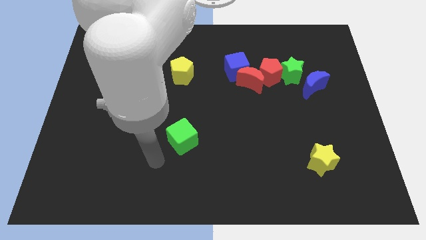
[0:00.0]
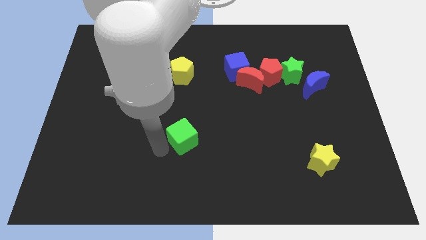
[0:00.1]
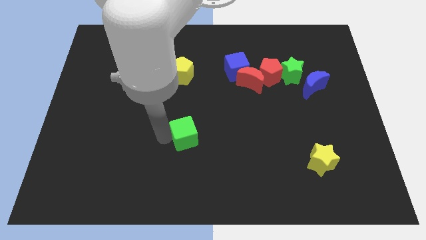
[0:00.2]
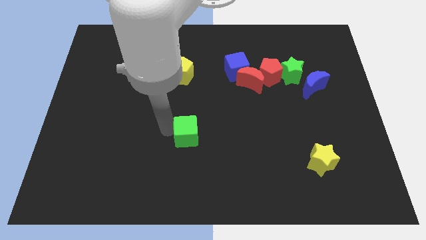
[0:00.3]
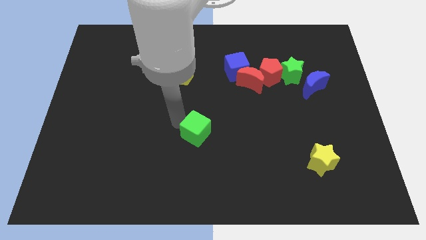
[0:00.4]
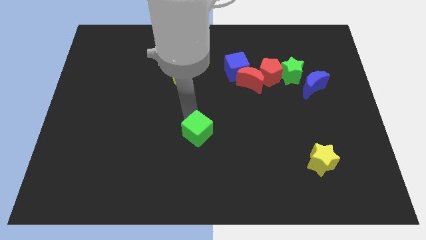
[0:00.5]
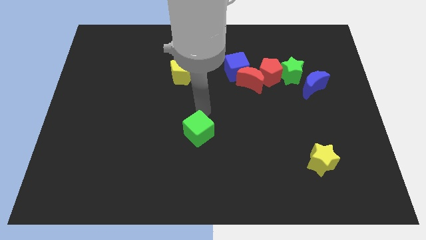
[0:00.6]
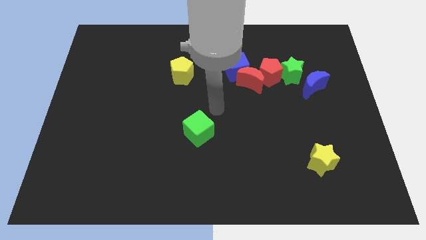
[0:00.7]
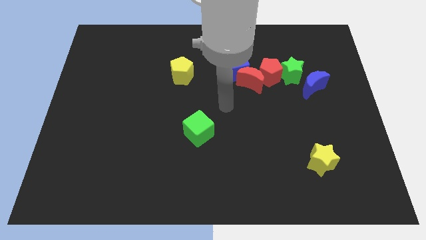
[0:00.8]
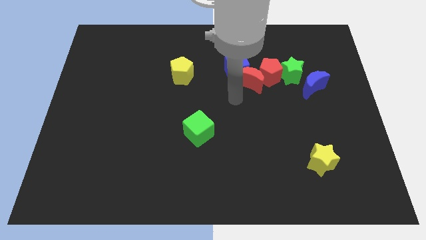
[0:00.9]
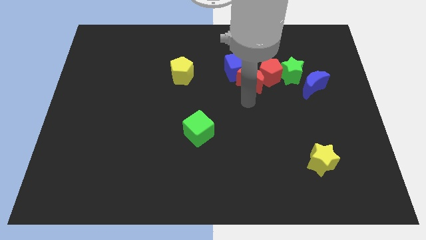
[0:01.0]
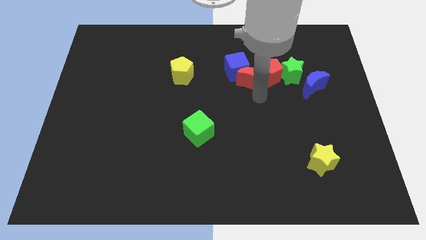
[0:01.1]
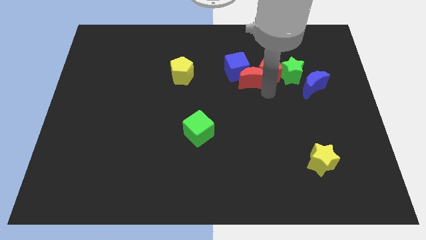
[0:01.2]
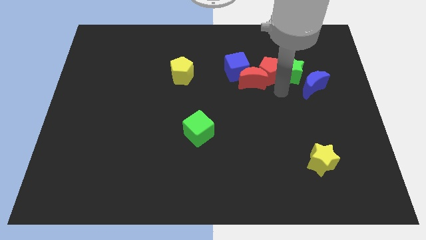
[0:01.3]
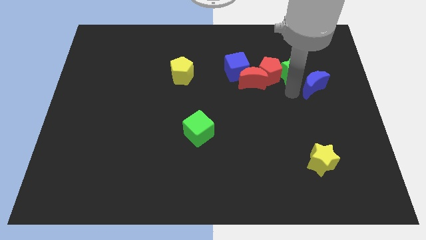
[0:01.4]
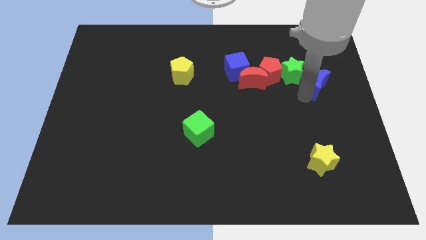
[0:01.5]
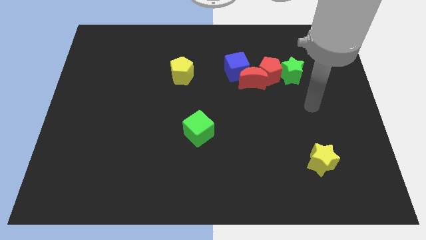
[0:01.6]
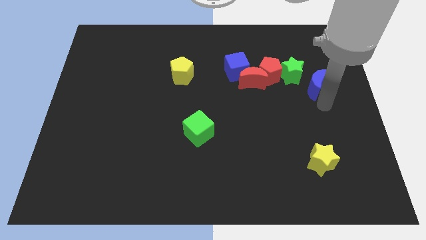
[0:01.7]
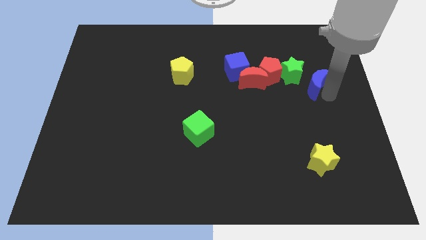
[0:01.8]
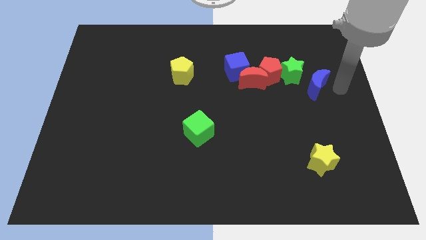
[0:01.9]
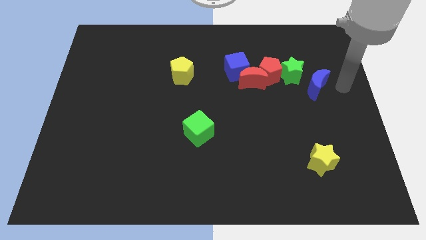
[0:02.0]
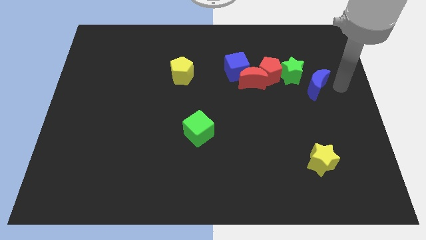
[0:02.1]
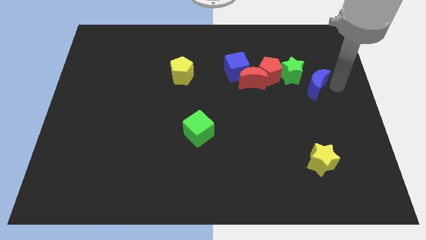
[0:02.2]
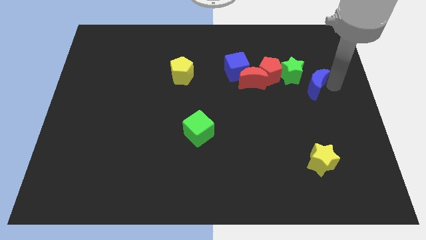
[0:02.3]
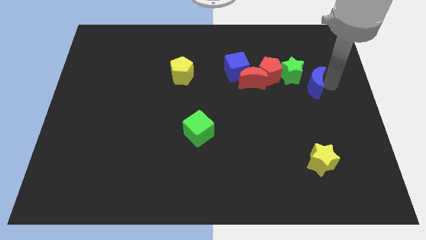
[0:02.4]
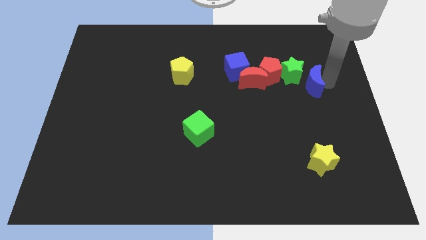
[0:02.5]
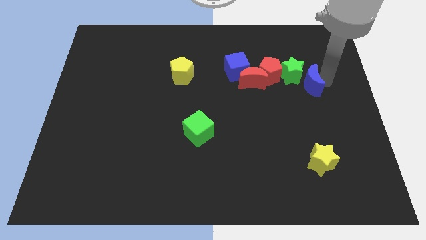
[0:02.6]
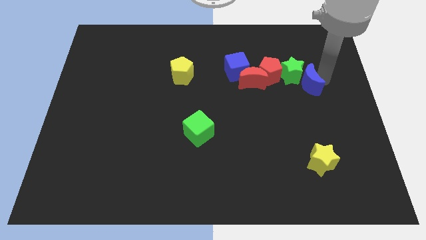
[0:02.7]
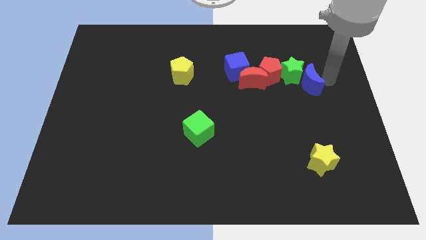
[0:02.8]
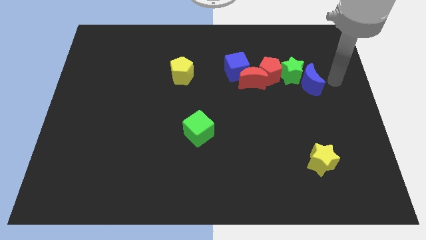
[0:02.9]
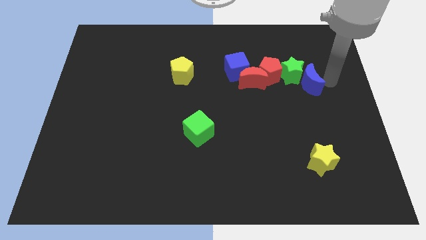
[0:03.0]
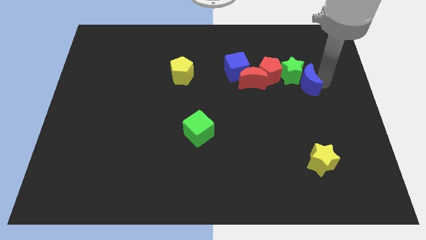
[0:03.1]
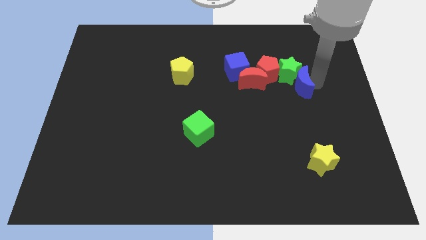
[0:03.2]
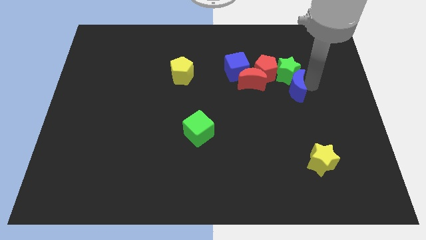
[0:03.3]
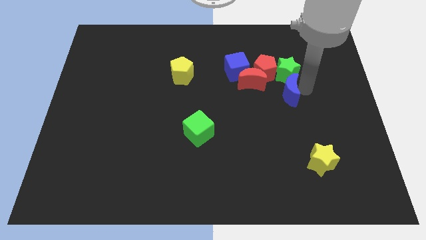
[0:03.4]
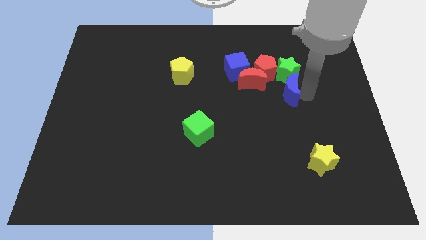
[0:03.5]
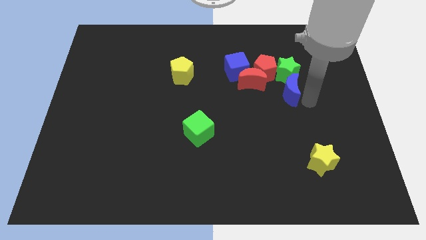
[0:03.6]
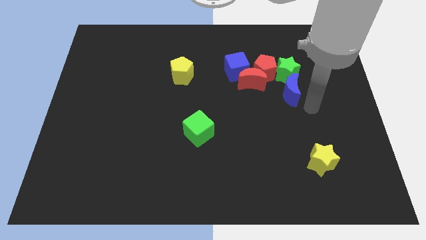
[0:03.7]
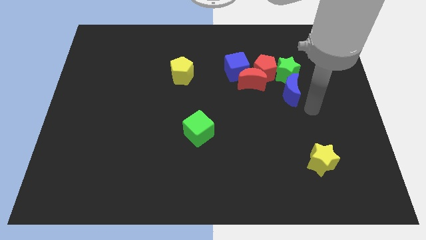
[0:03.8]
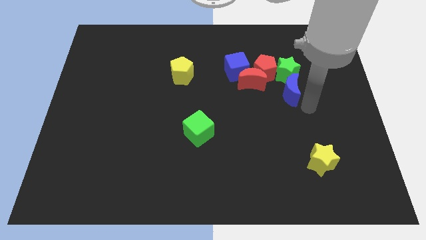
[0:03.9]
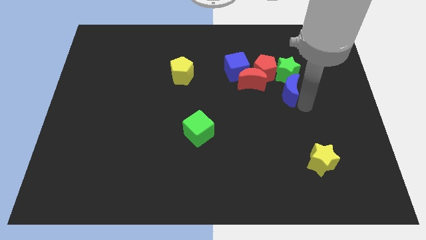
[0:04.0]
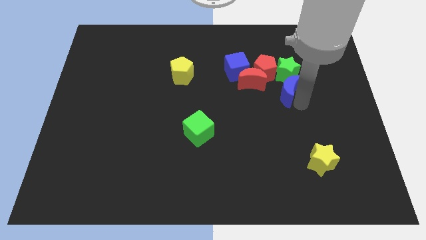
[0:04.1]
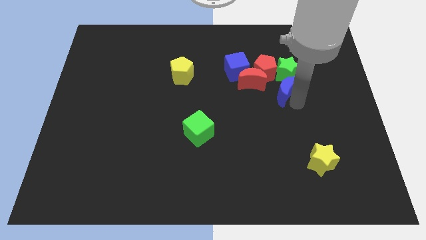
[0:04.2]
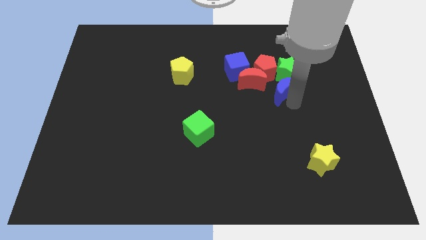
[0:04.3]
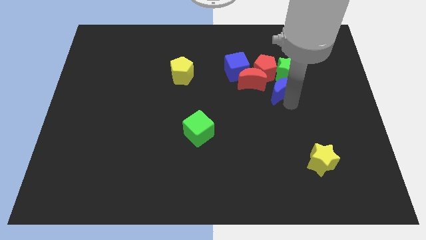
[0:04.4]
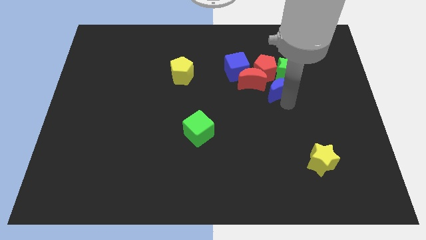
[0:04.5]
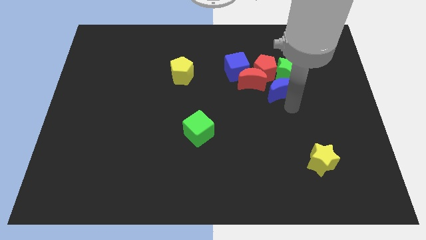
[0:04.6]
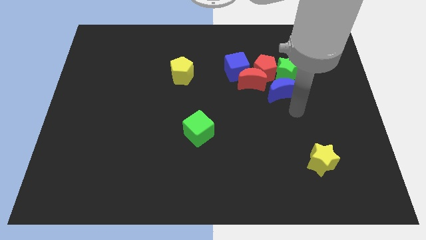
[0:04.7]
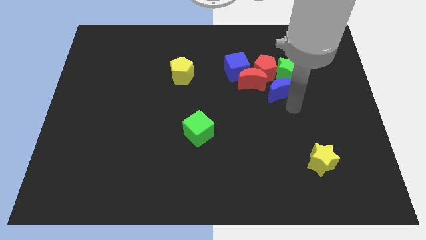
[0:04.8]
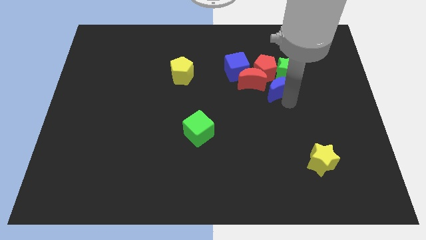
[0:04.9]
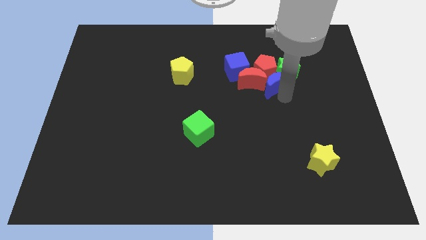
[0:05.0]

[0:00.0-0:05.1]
put the blue moon next to the red pentagon

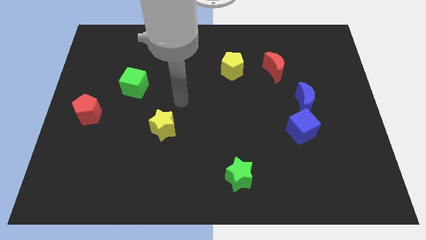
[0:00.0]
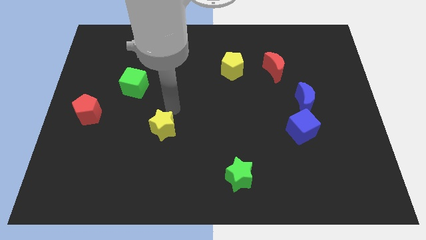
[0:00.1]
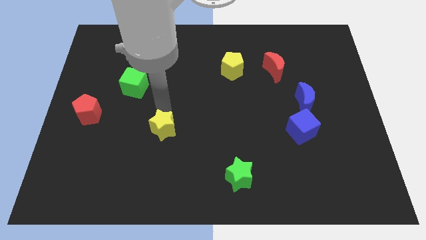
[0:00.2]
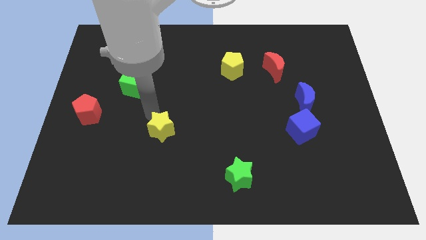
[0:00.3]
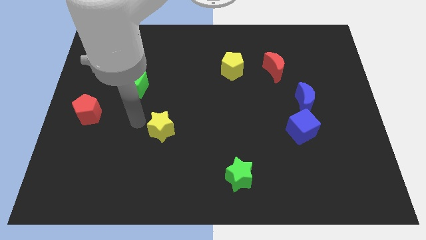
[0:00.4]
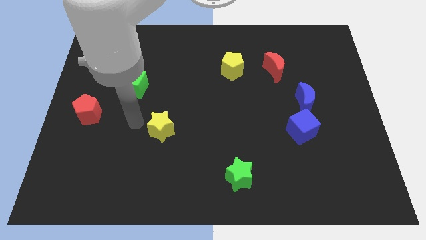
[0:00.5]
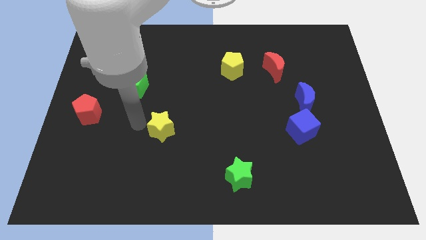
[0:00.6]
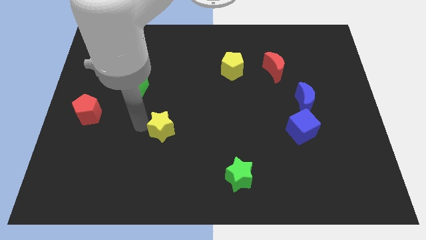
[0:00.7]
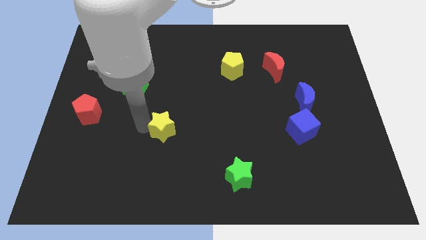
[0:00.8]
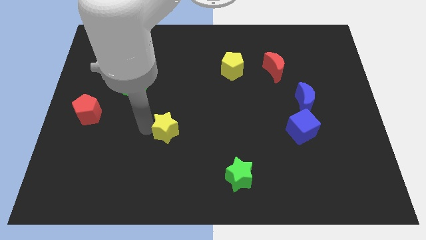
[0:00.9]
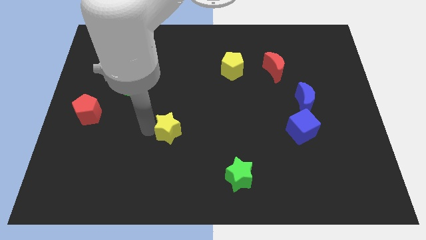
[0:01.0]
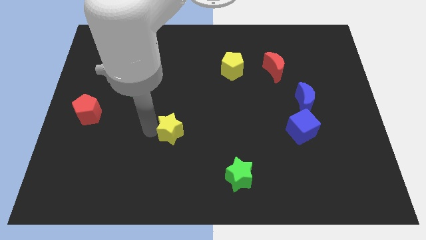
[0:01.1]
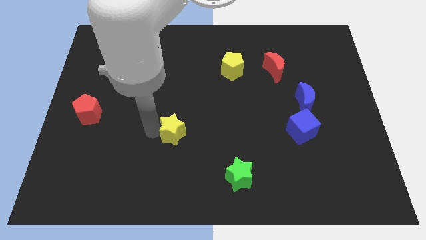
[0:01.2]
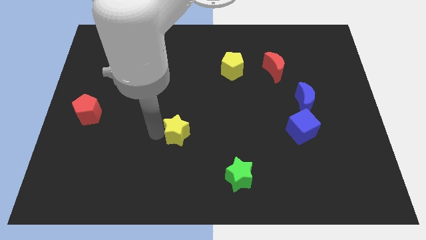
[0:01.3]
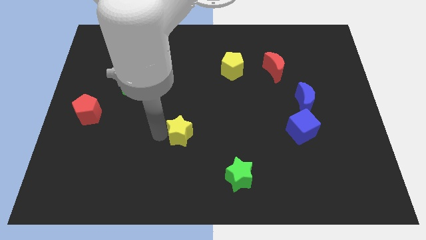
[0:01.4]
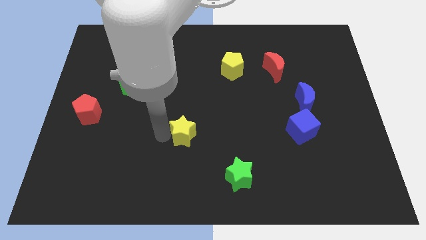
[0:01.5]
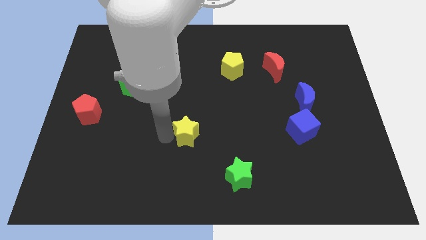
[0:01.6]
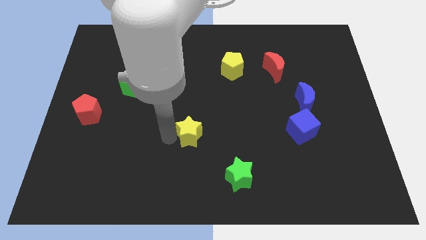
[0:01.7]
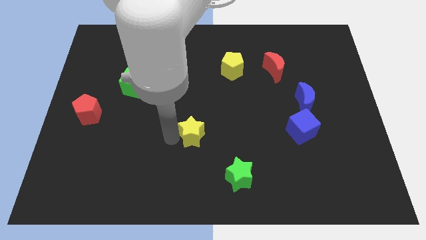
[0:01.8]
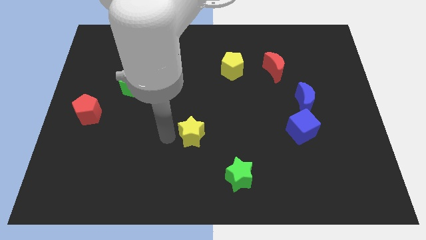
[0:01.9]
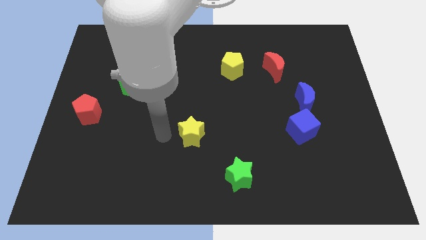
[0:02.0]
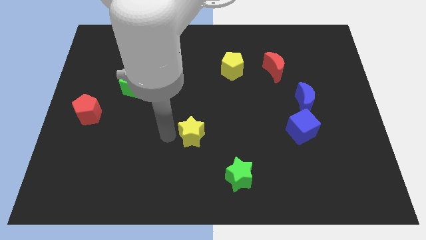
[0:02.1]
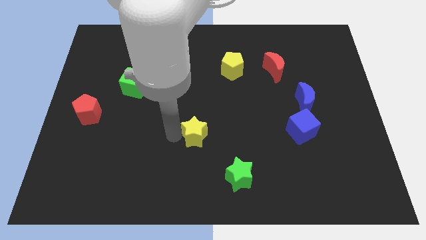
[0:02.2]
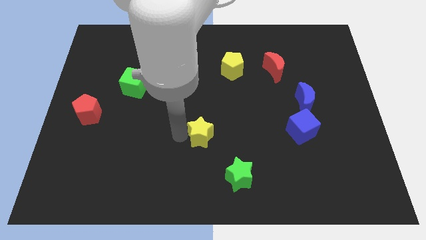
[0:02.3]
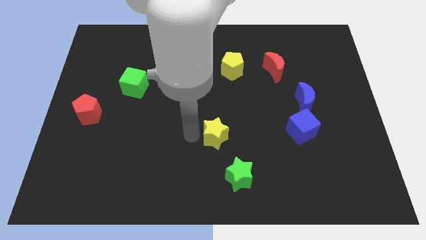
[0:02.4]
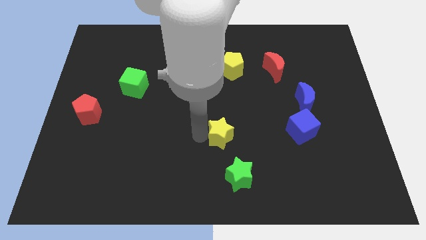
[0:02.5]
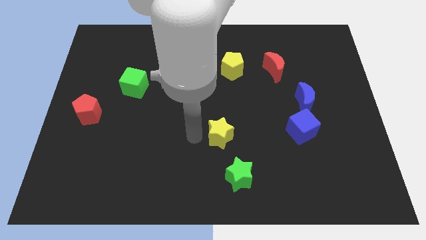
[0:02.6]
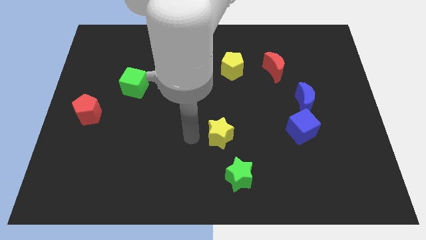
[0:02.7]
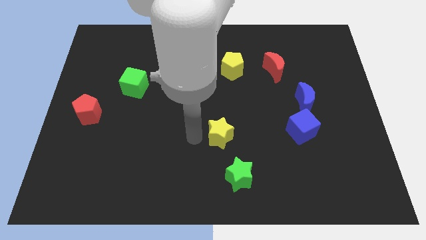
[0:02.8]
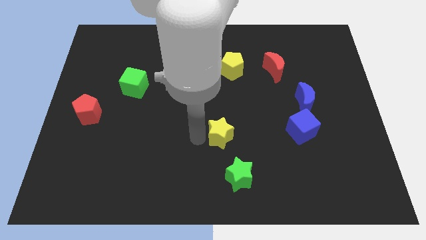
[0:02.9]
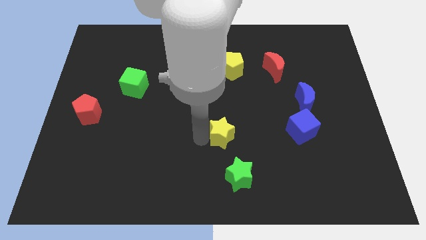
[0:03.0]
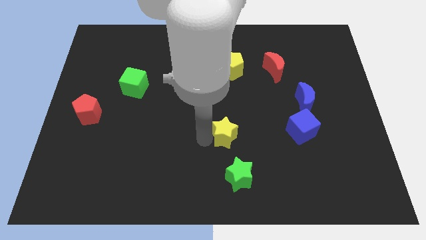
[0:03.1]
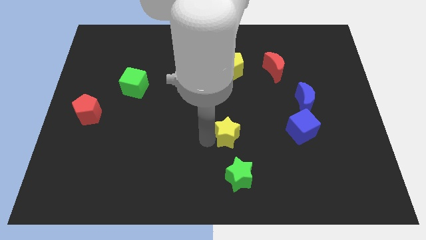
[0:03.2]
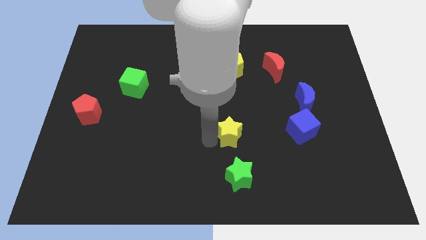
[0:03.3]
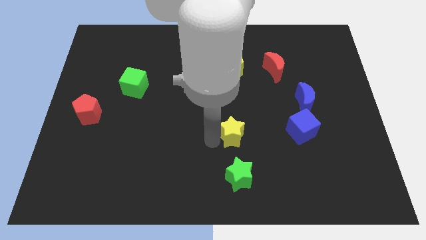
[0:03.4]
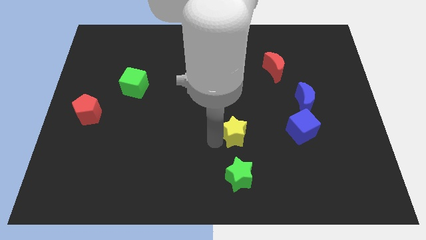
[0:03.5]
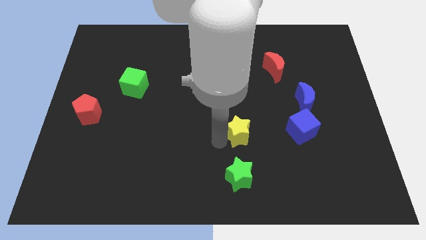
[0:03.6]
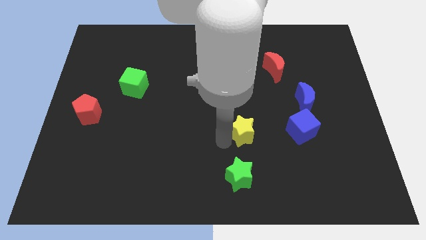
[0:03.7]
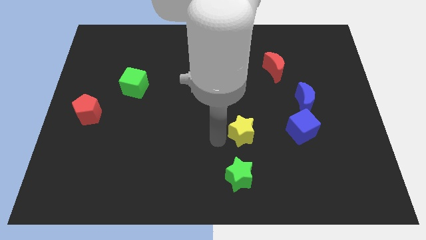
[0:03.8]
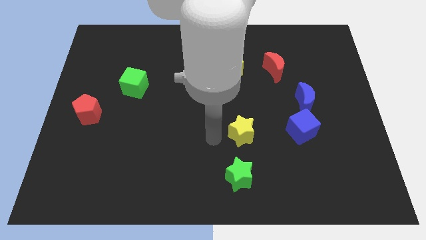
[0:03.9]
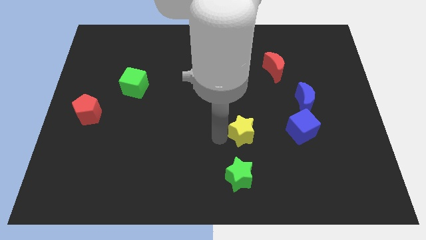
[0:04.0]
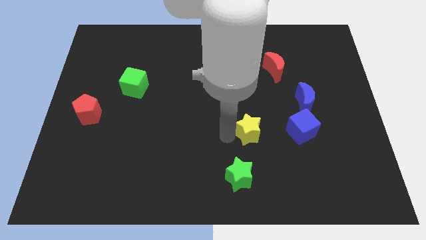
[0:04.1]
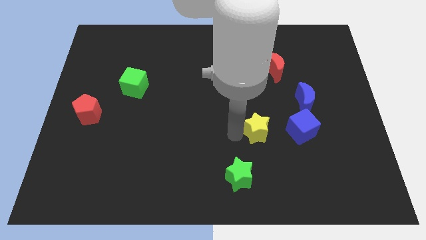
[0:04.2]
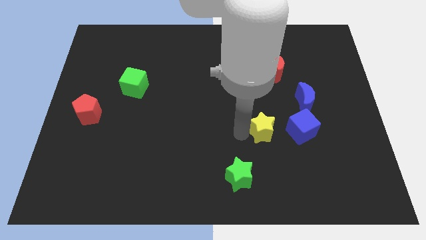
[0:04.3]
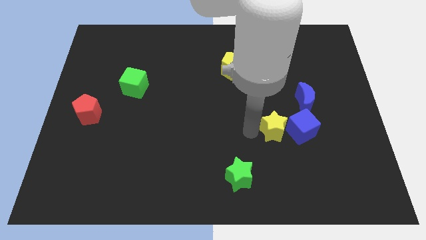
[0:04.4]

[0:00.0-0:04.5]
move the yellow star next to the blue cube
